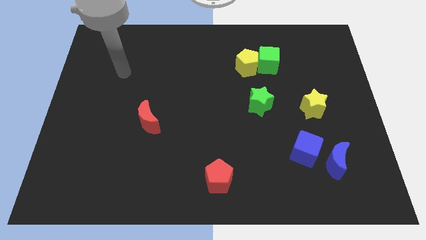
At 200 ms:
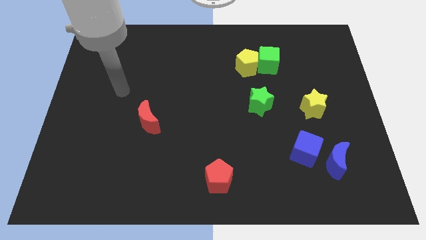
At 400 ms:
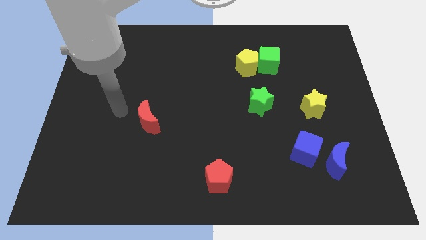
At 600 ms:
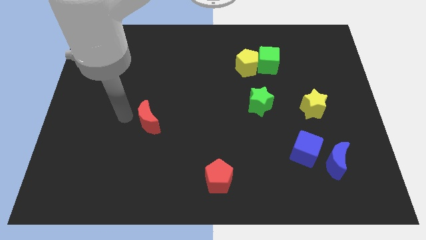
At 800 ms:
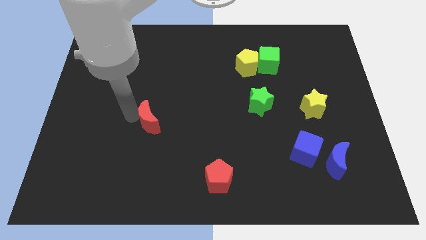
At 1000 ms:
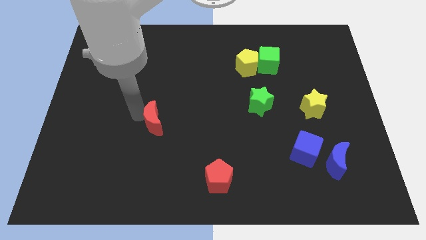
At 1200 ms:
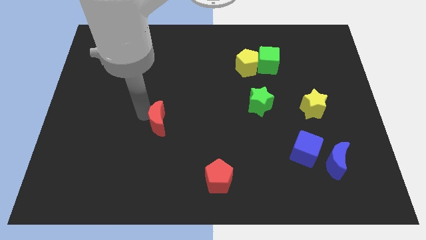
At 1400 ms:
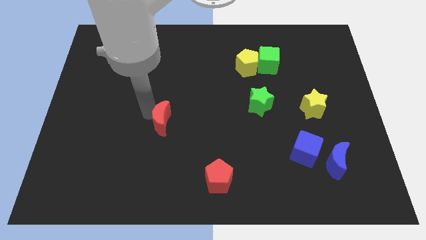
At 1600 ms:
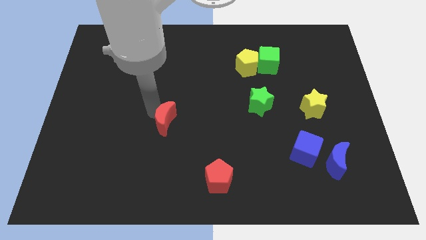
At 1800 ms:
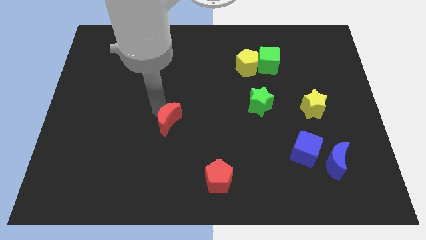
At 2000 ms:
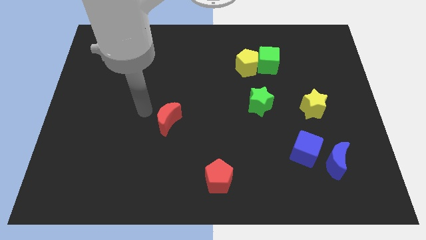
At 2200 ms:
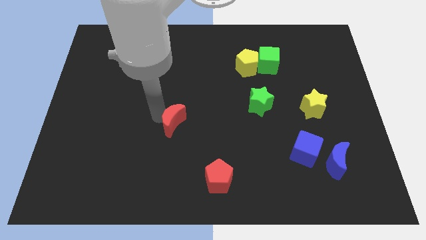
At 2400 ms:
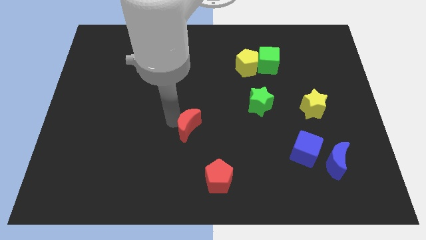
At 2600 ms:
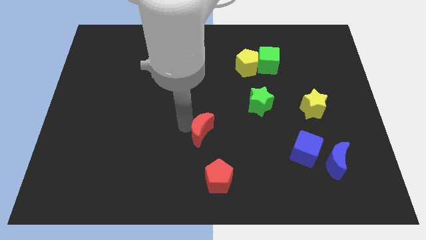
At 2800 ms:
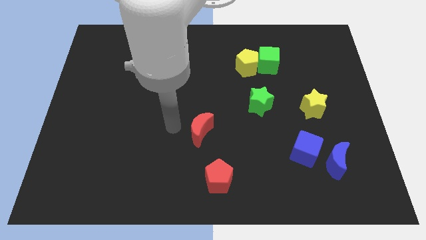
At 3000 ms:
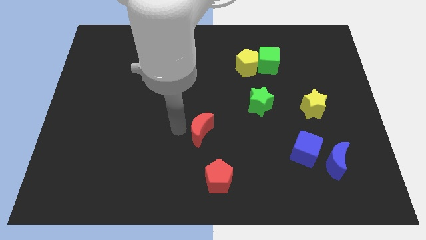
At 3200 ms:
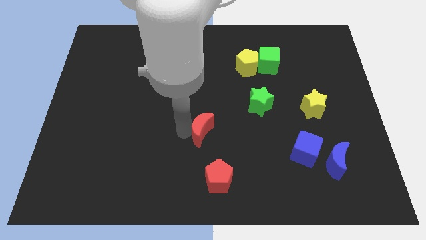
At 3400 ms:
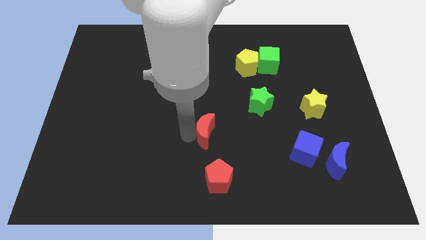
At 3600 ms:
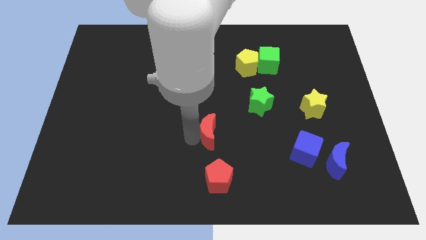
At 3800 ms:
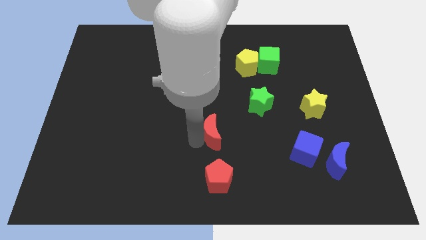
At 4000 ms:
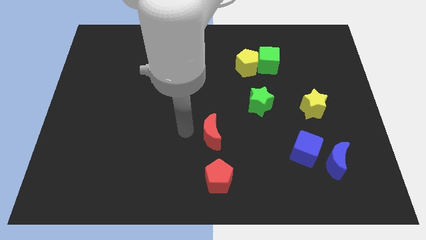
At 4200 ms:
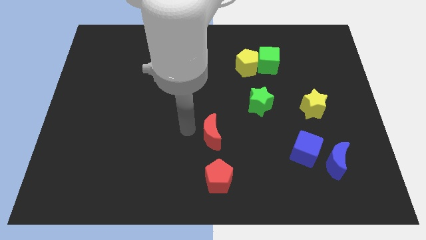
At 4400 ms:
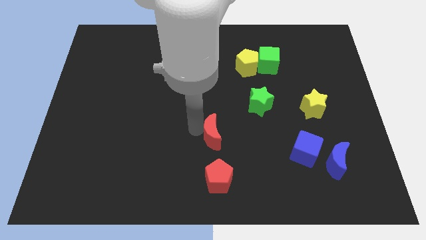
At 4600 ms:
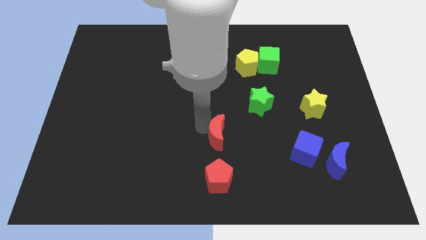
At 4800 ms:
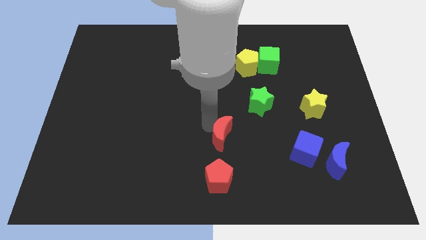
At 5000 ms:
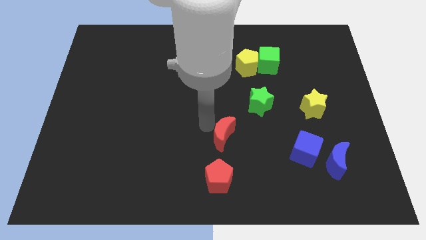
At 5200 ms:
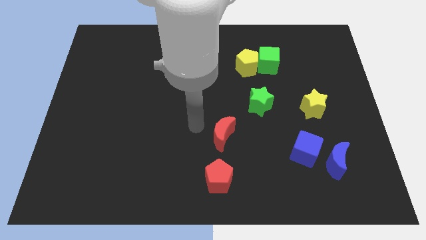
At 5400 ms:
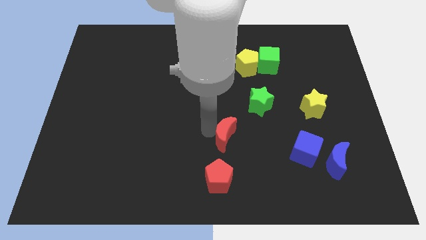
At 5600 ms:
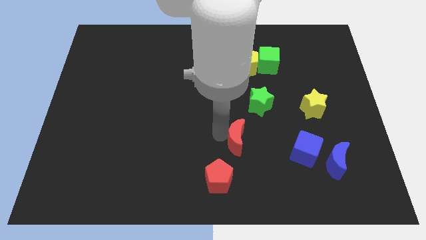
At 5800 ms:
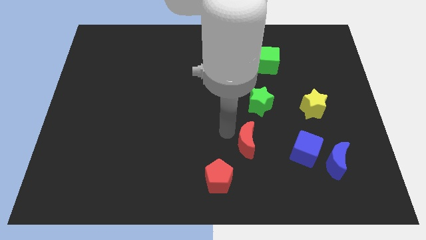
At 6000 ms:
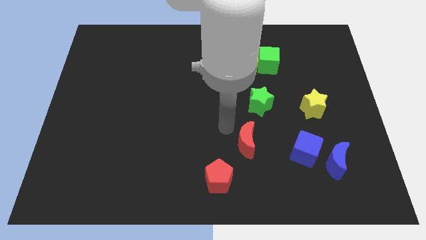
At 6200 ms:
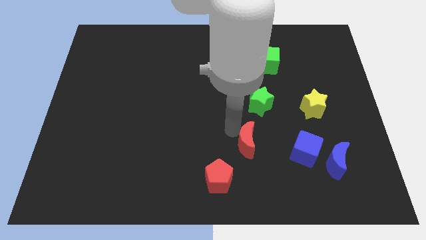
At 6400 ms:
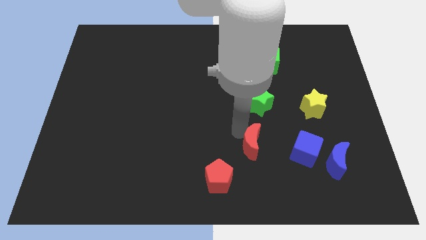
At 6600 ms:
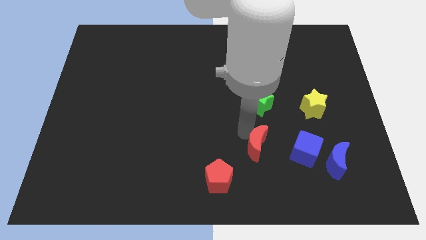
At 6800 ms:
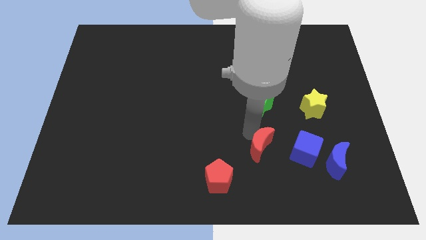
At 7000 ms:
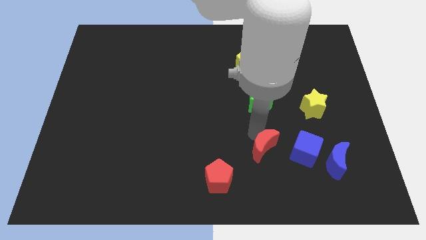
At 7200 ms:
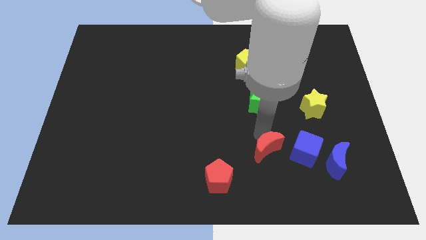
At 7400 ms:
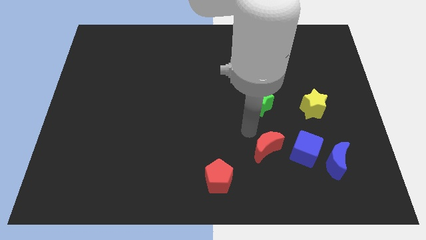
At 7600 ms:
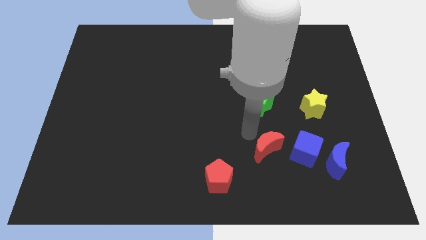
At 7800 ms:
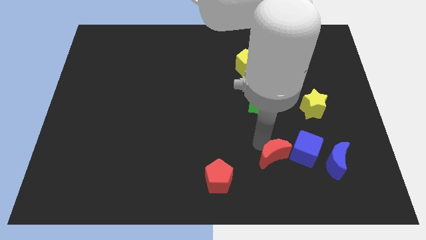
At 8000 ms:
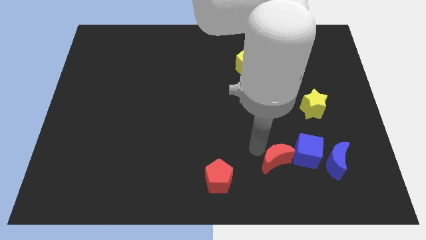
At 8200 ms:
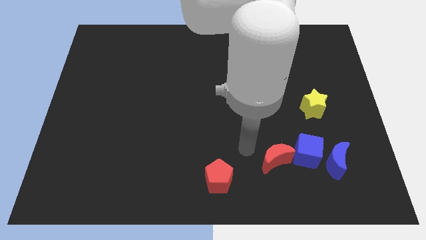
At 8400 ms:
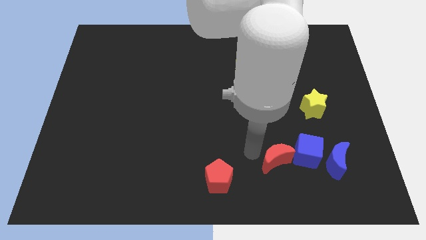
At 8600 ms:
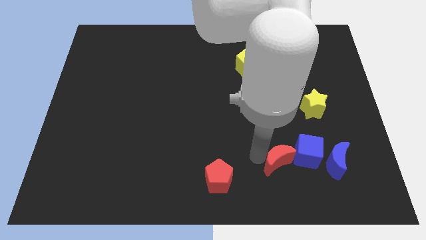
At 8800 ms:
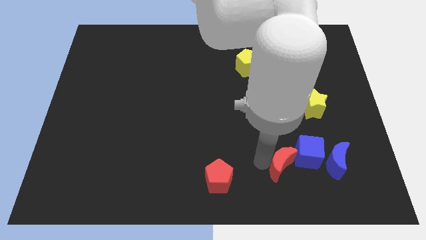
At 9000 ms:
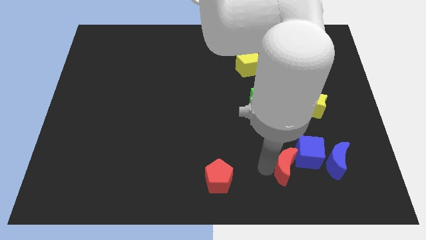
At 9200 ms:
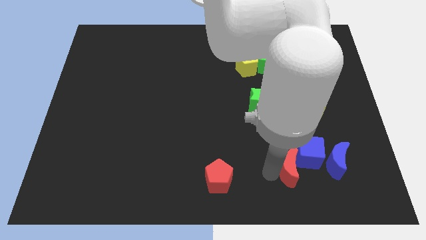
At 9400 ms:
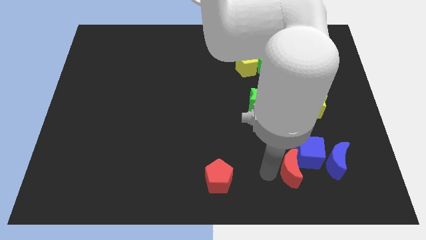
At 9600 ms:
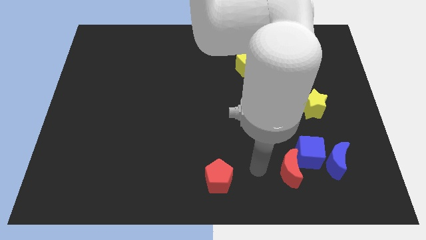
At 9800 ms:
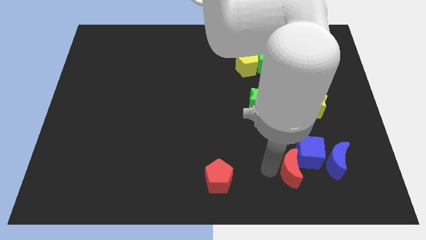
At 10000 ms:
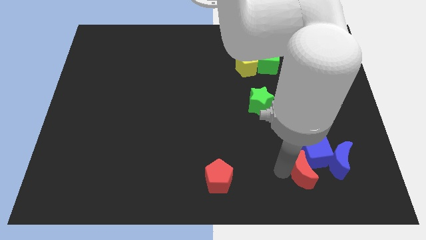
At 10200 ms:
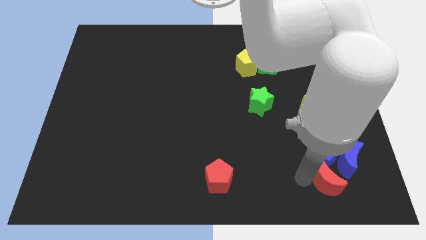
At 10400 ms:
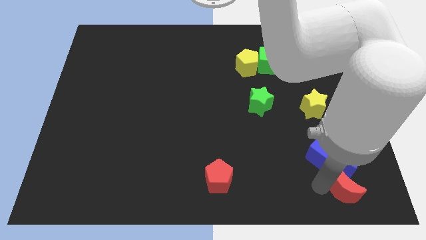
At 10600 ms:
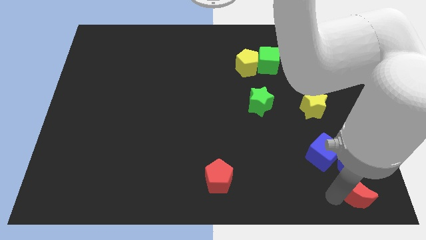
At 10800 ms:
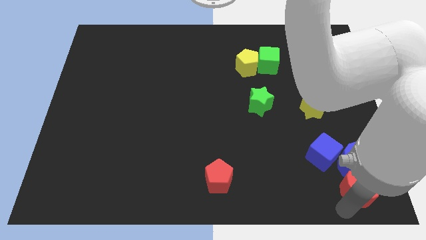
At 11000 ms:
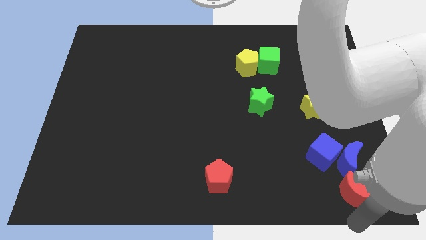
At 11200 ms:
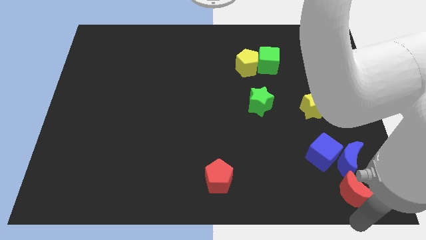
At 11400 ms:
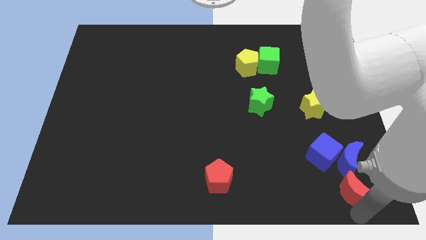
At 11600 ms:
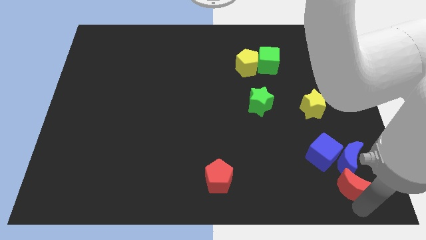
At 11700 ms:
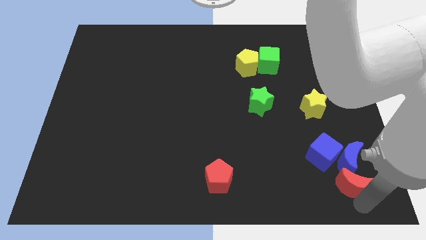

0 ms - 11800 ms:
slide the red moon to the blue moon

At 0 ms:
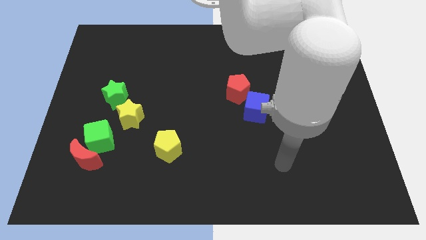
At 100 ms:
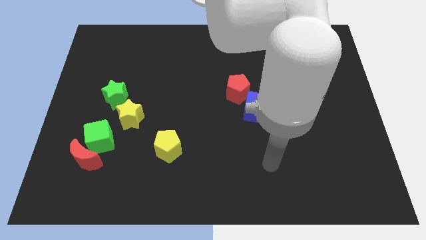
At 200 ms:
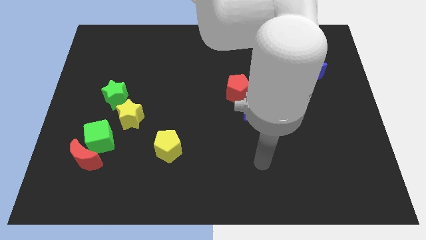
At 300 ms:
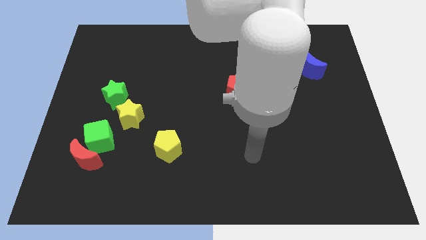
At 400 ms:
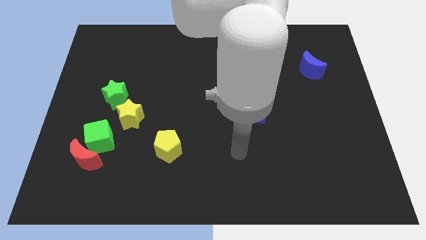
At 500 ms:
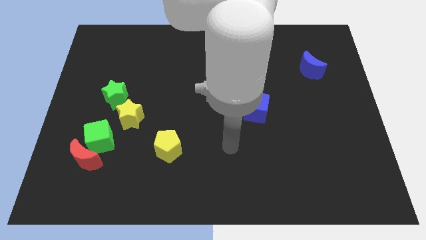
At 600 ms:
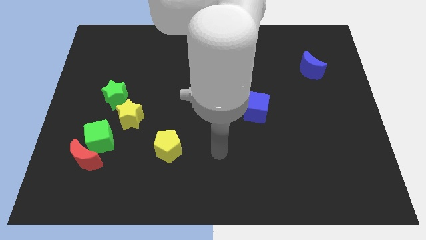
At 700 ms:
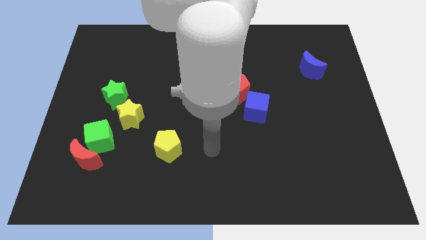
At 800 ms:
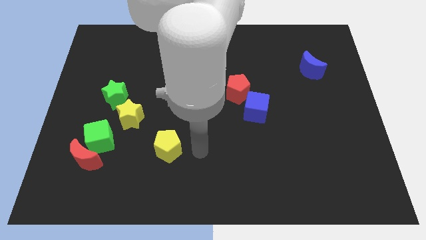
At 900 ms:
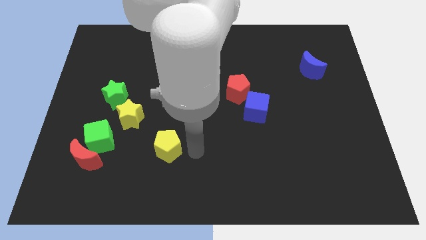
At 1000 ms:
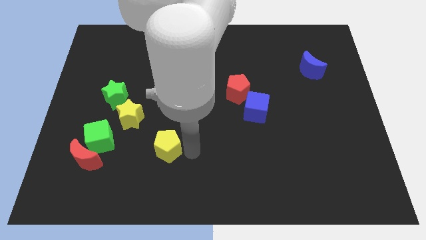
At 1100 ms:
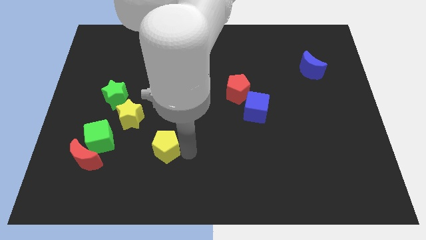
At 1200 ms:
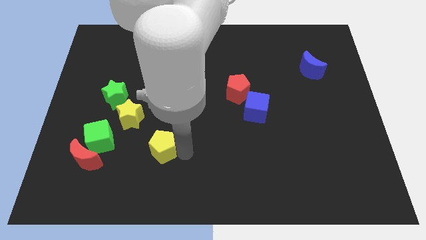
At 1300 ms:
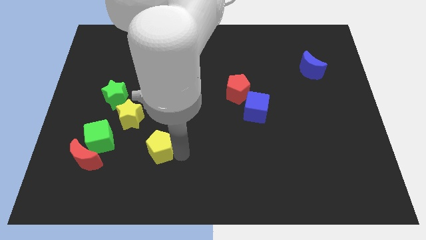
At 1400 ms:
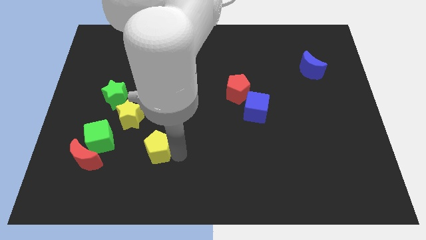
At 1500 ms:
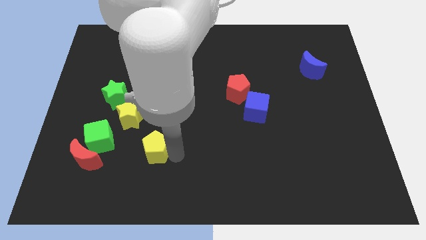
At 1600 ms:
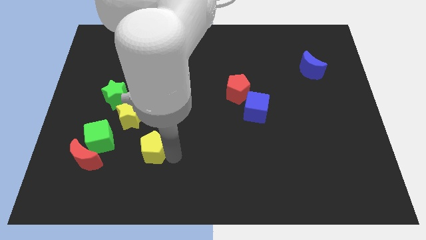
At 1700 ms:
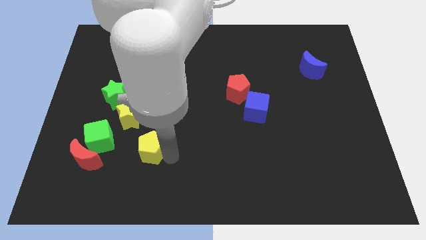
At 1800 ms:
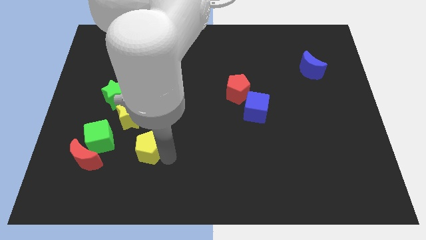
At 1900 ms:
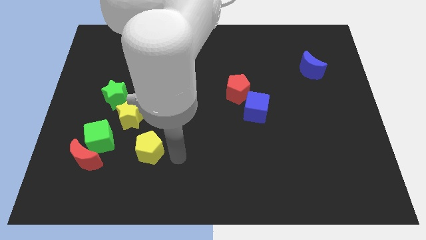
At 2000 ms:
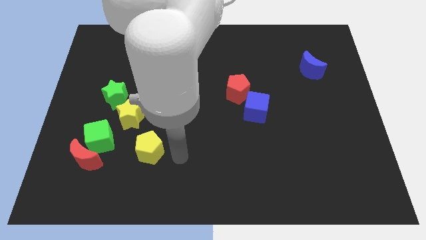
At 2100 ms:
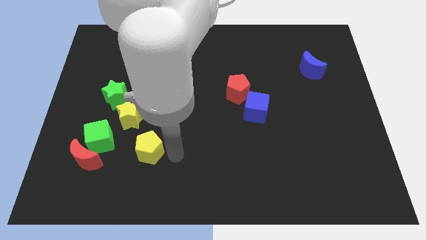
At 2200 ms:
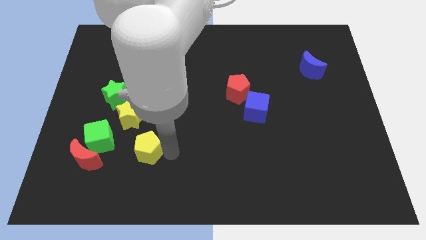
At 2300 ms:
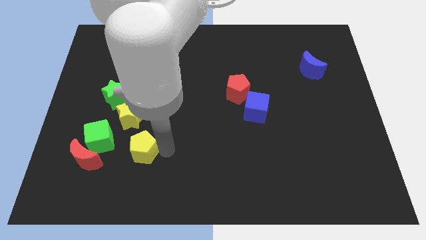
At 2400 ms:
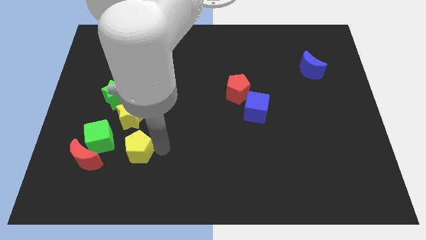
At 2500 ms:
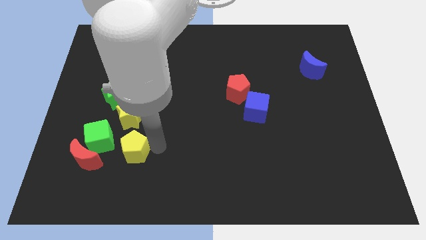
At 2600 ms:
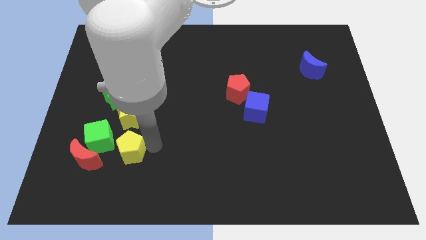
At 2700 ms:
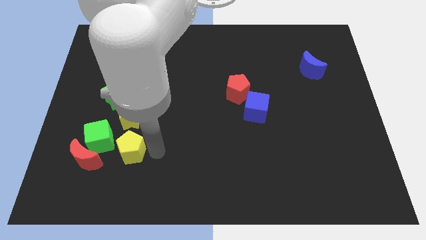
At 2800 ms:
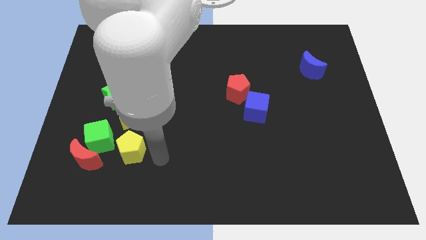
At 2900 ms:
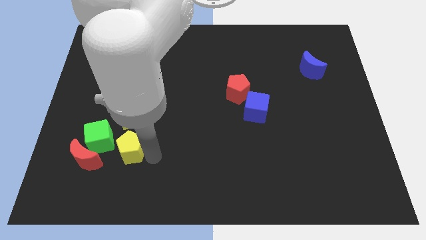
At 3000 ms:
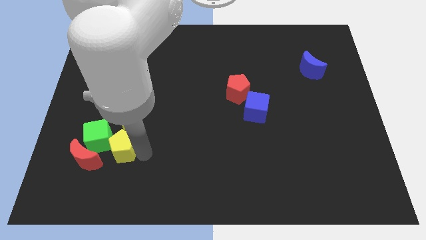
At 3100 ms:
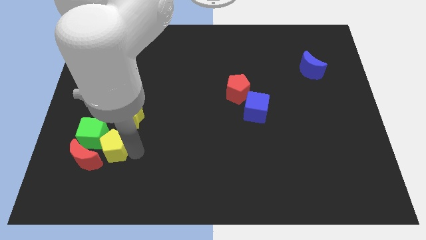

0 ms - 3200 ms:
move the yellow pentagon close to the green cube
